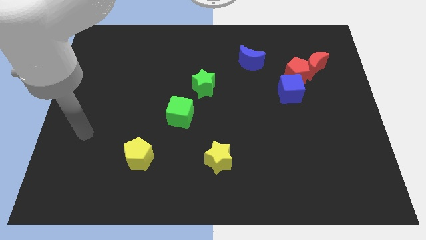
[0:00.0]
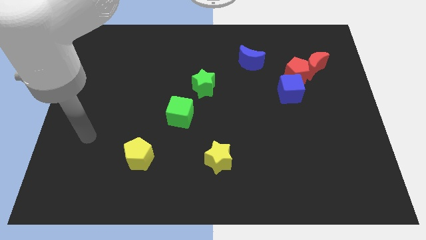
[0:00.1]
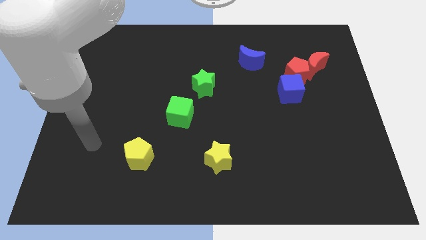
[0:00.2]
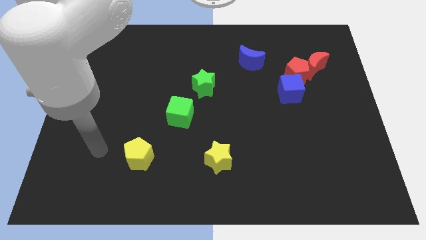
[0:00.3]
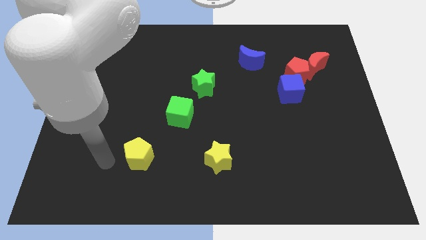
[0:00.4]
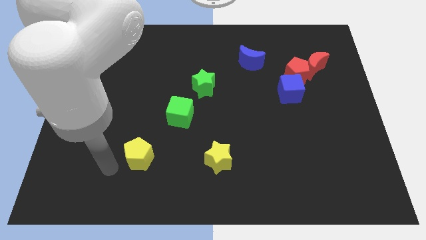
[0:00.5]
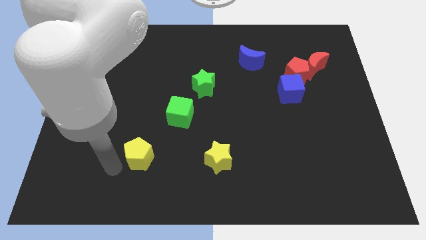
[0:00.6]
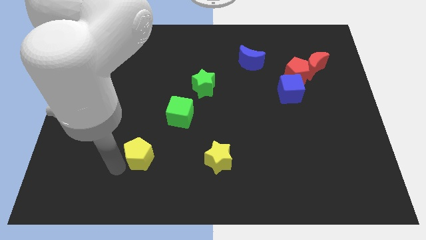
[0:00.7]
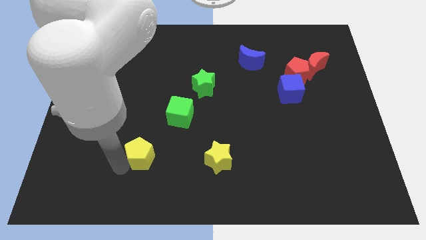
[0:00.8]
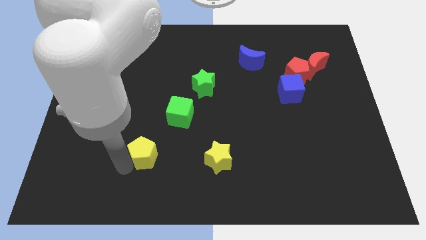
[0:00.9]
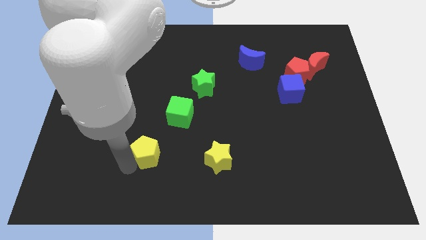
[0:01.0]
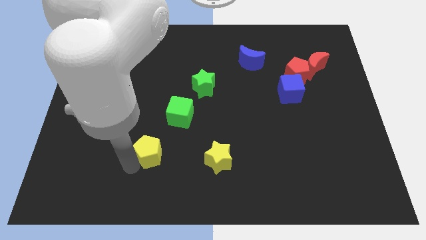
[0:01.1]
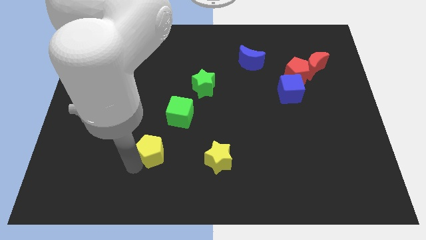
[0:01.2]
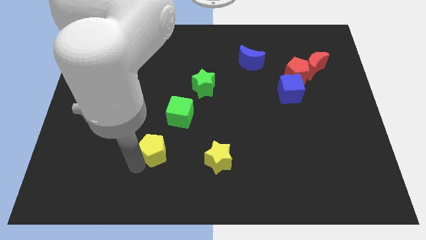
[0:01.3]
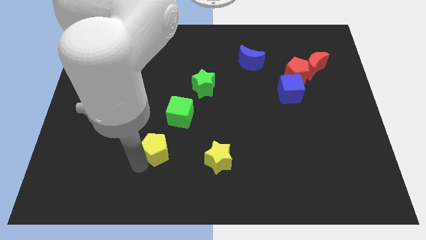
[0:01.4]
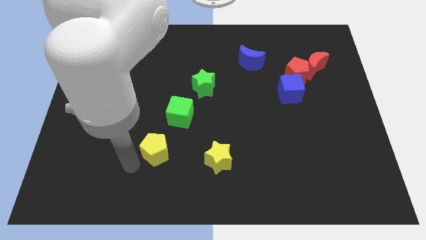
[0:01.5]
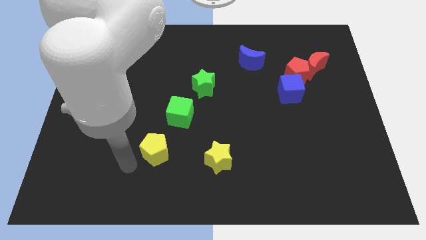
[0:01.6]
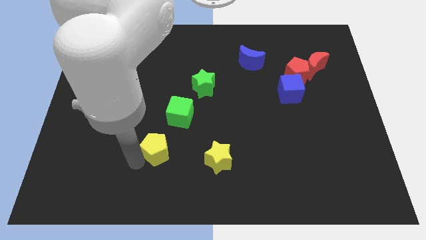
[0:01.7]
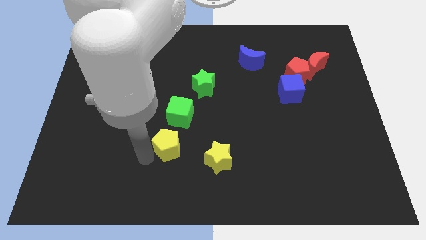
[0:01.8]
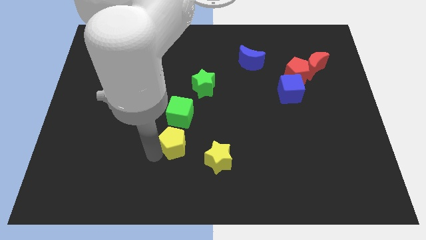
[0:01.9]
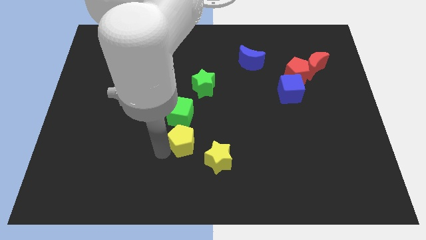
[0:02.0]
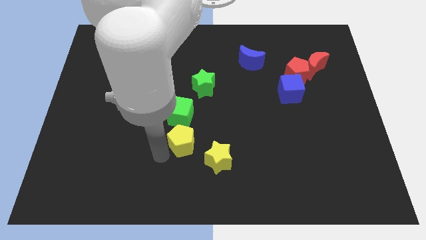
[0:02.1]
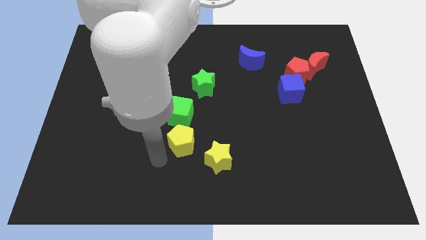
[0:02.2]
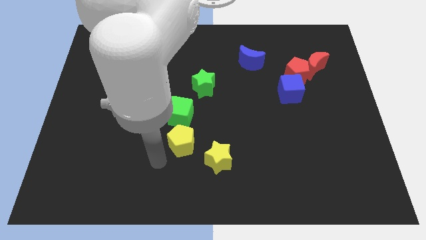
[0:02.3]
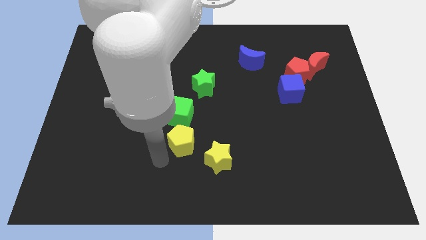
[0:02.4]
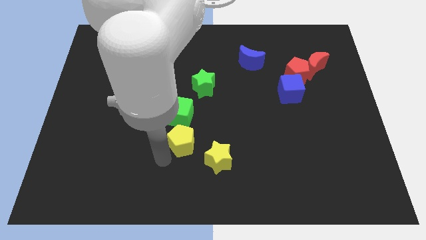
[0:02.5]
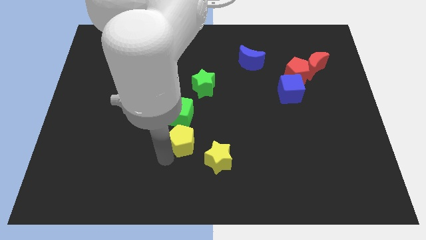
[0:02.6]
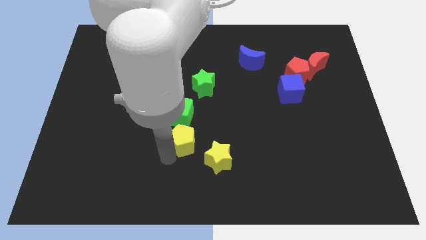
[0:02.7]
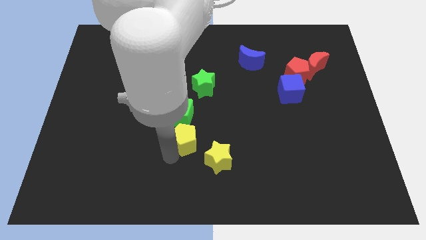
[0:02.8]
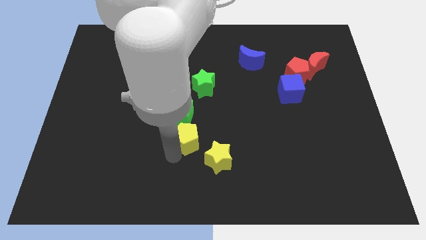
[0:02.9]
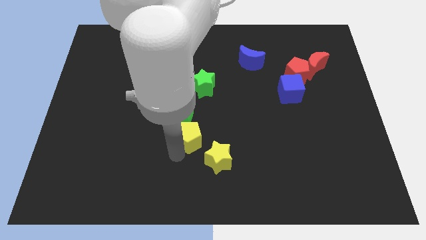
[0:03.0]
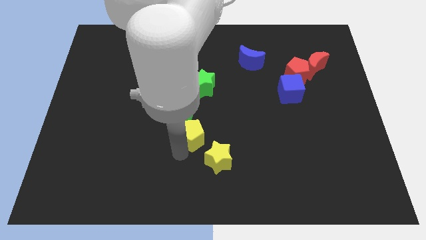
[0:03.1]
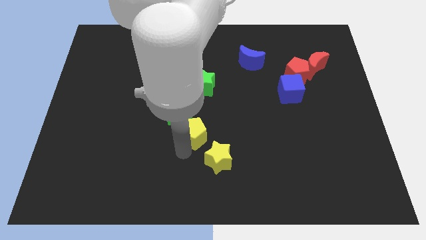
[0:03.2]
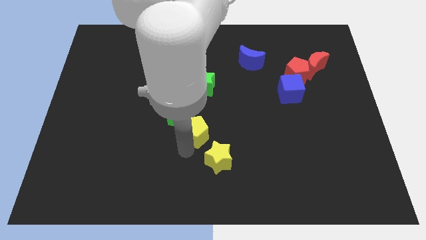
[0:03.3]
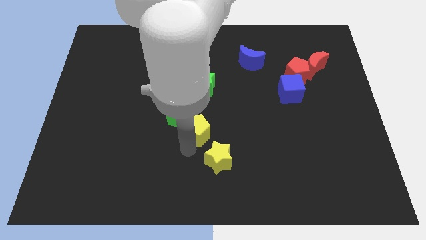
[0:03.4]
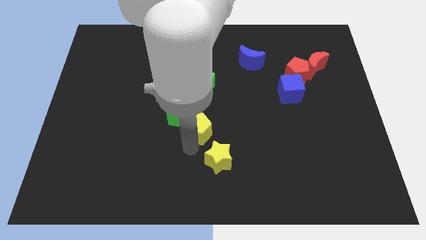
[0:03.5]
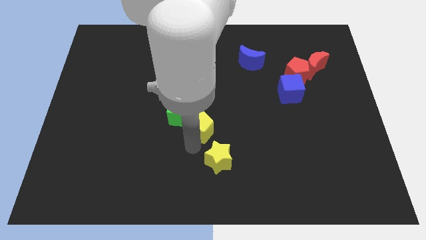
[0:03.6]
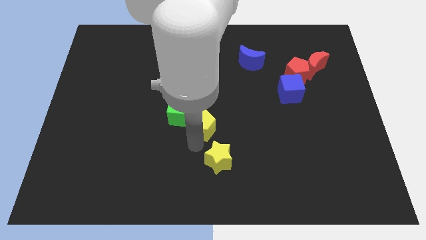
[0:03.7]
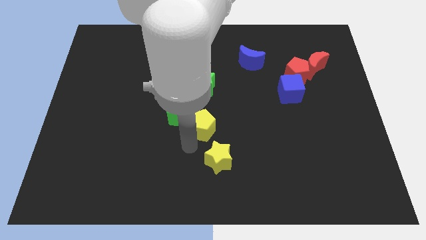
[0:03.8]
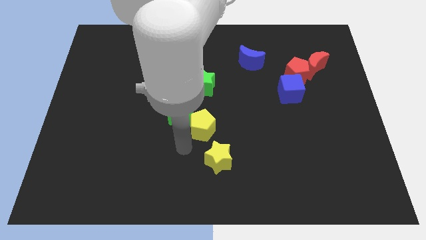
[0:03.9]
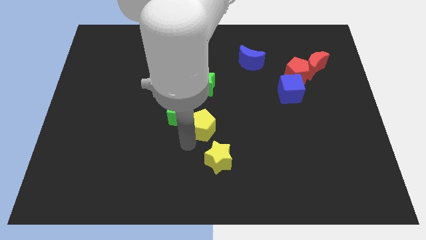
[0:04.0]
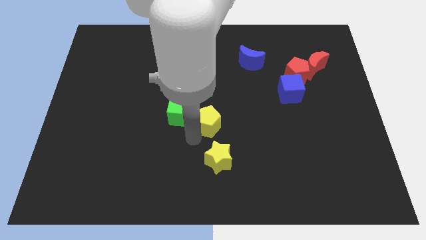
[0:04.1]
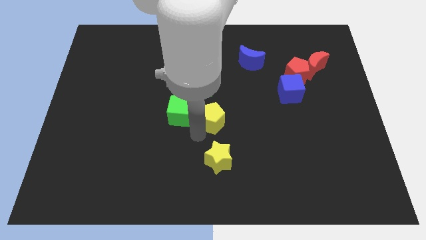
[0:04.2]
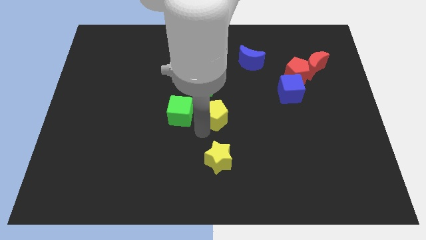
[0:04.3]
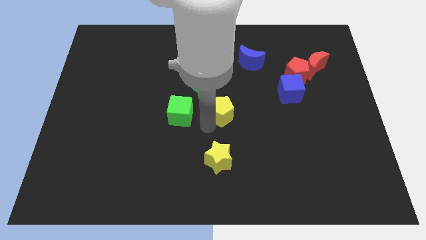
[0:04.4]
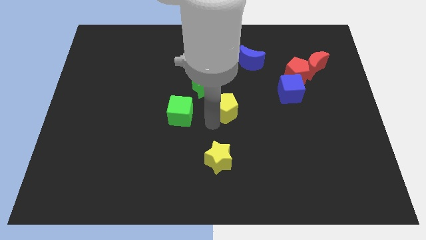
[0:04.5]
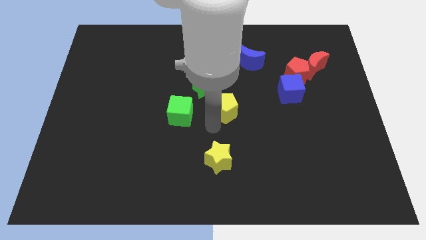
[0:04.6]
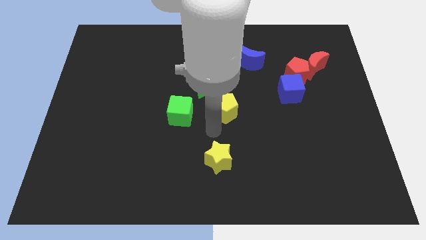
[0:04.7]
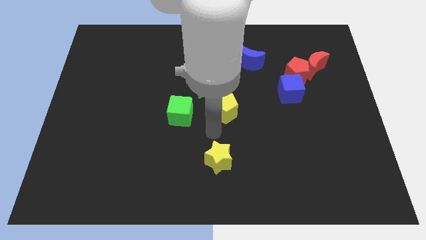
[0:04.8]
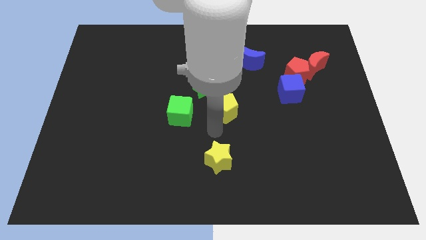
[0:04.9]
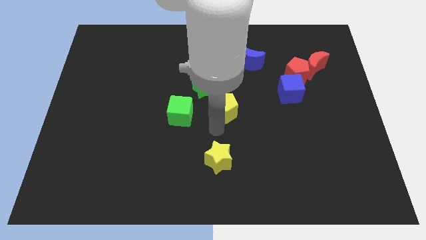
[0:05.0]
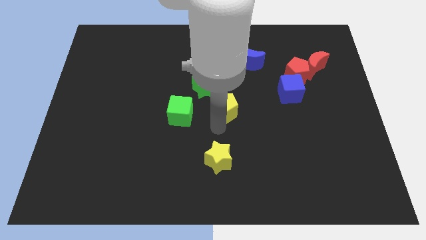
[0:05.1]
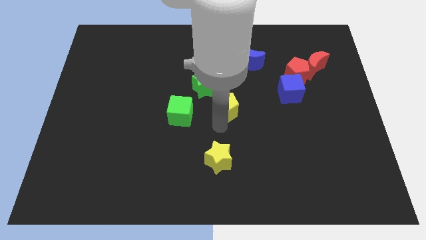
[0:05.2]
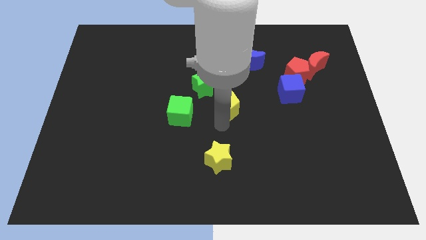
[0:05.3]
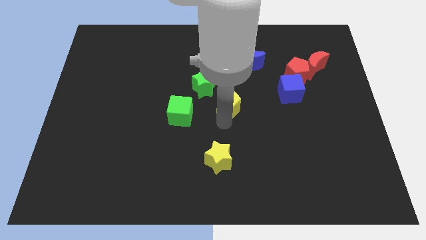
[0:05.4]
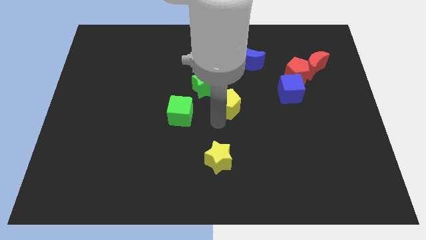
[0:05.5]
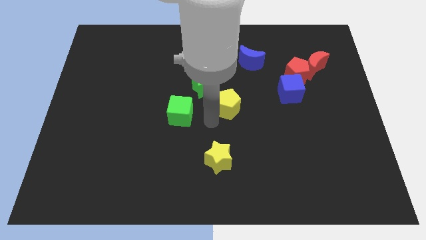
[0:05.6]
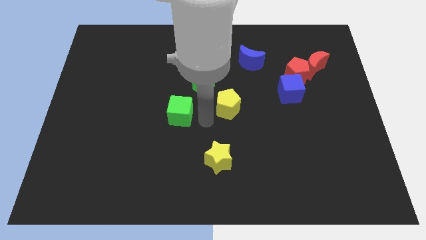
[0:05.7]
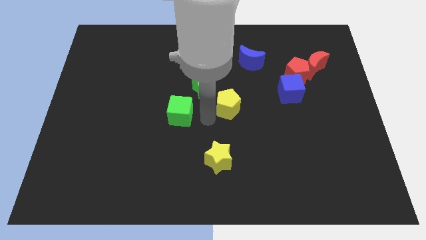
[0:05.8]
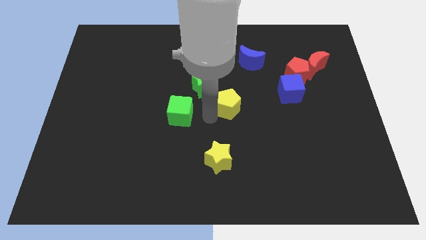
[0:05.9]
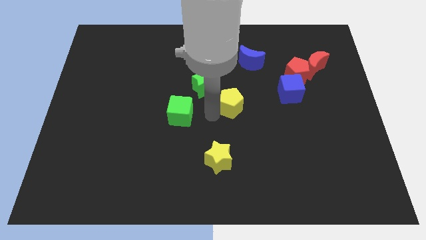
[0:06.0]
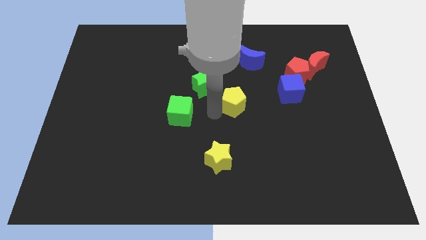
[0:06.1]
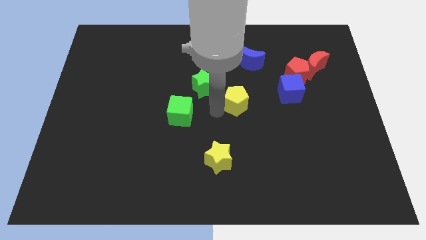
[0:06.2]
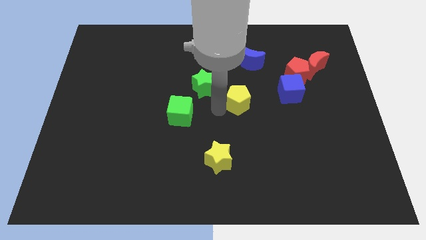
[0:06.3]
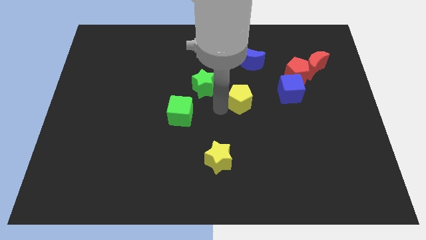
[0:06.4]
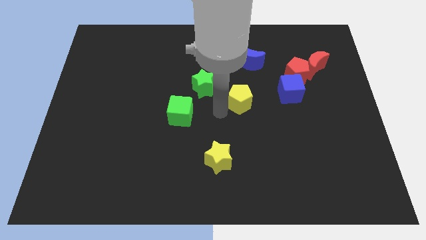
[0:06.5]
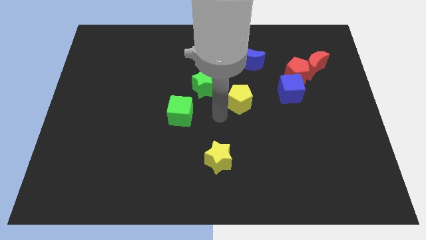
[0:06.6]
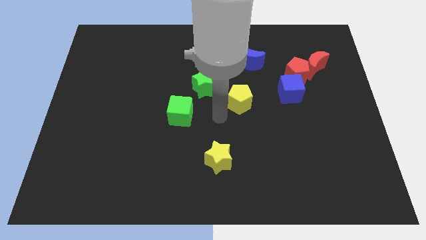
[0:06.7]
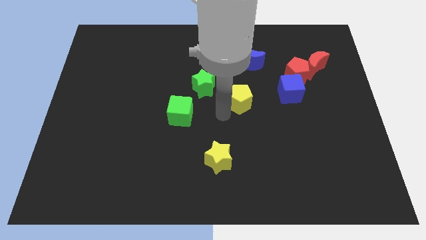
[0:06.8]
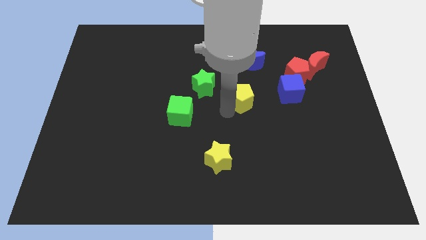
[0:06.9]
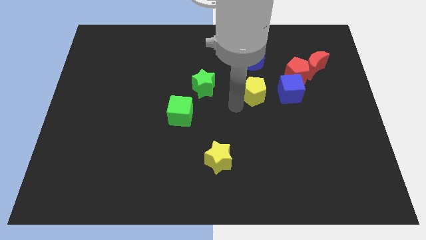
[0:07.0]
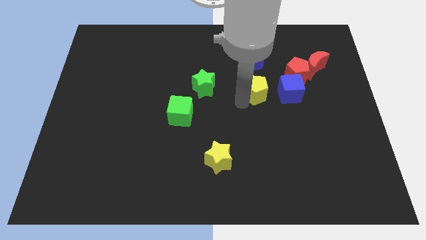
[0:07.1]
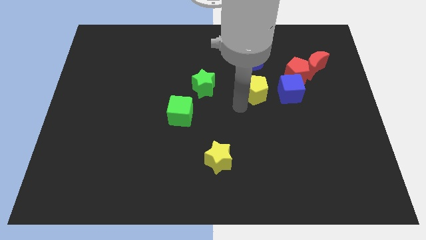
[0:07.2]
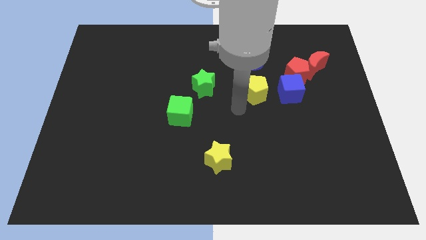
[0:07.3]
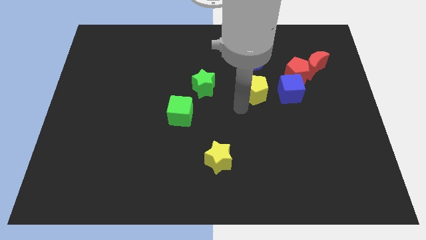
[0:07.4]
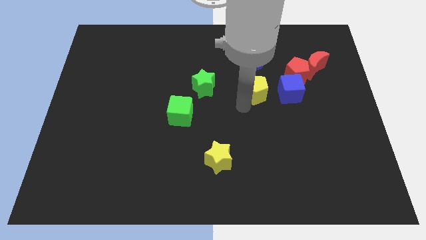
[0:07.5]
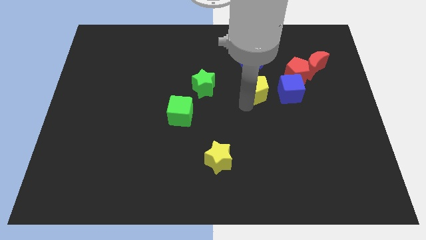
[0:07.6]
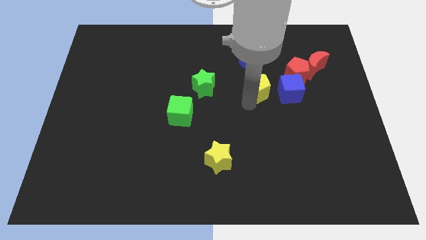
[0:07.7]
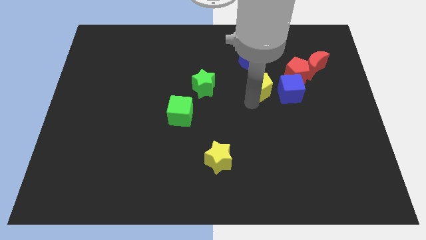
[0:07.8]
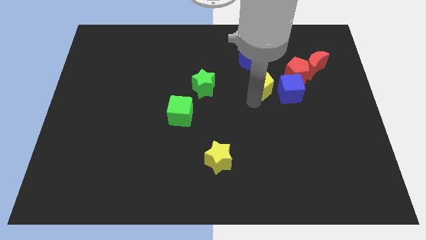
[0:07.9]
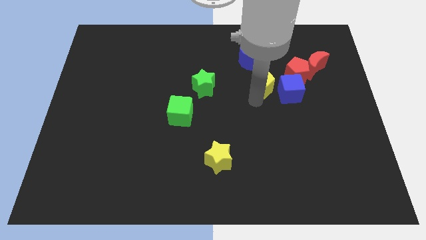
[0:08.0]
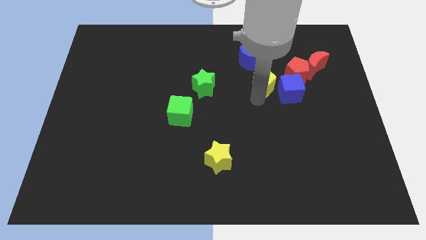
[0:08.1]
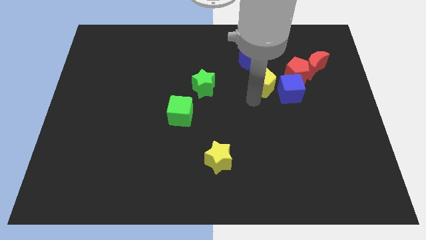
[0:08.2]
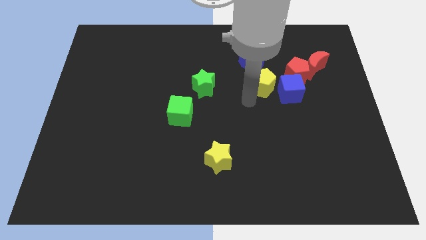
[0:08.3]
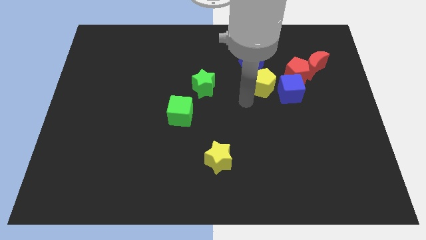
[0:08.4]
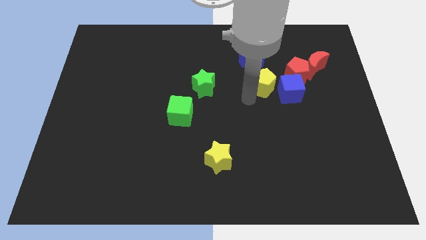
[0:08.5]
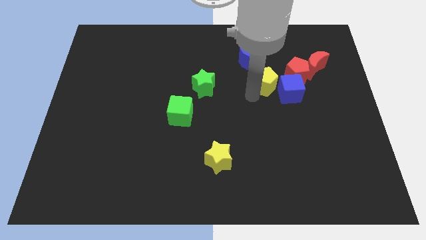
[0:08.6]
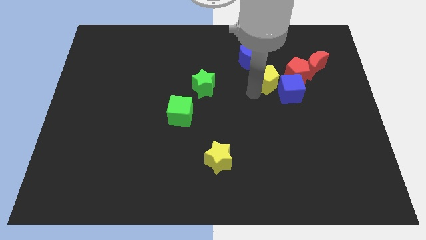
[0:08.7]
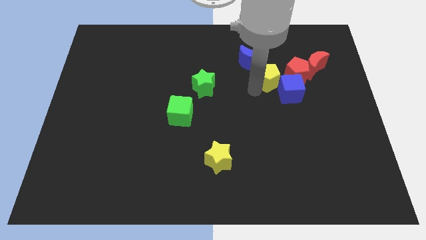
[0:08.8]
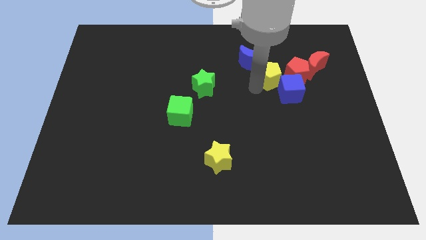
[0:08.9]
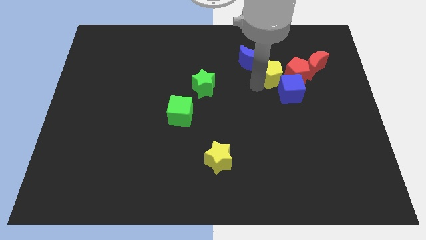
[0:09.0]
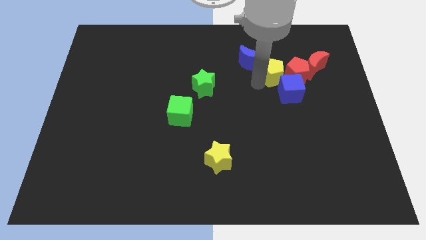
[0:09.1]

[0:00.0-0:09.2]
move the yellow pentagon to the red pentagon
